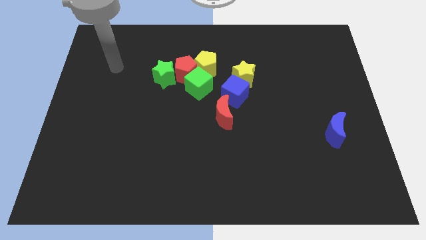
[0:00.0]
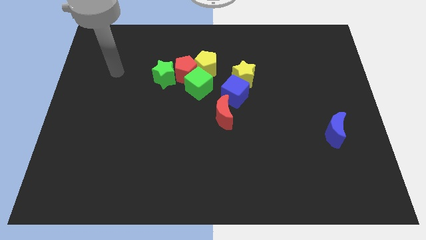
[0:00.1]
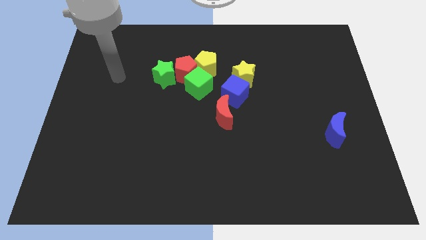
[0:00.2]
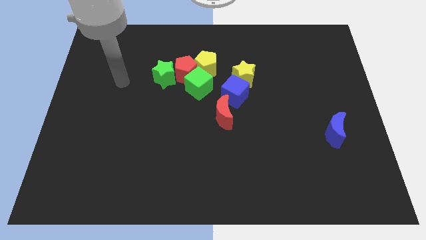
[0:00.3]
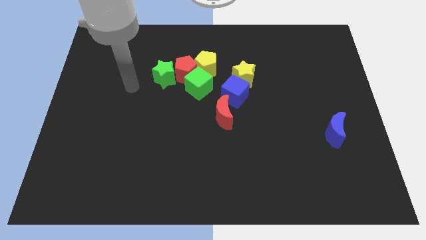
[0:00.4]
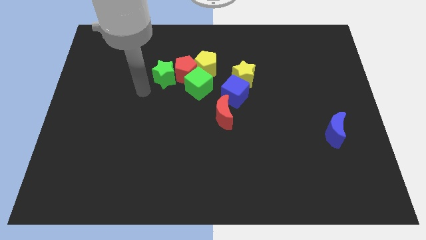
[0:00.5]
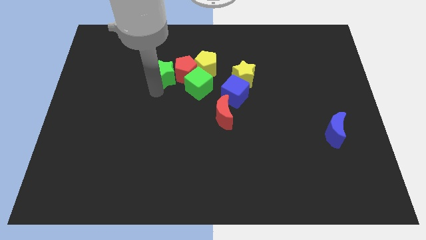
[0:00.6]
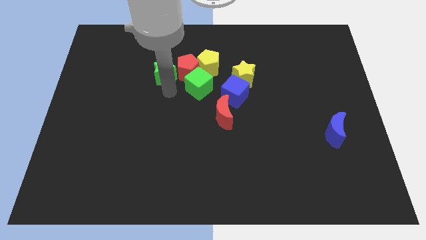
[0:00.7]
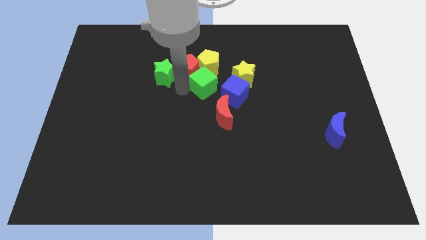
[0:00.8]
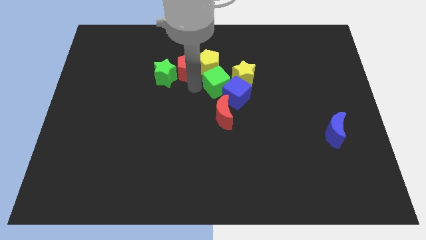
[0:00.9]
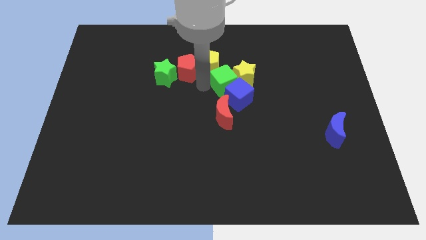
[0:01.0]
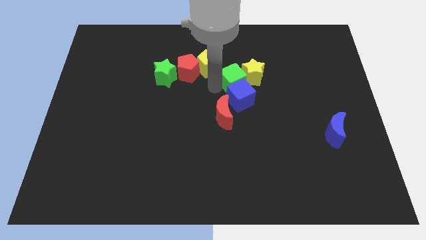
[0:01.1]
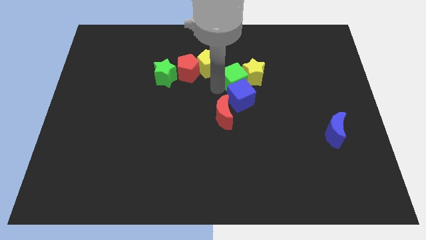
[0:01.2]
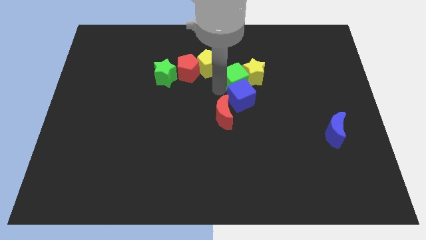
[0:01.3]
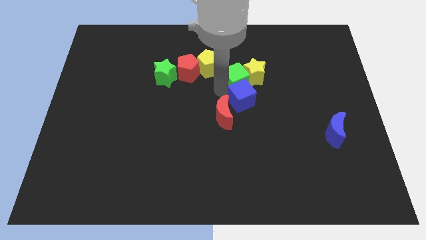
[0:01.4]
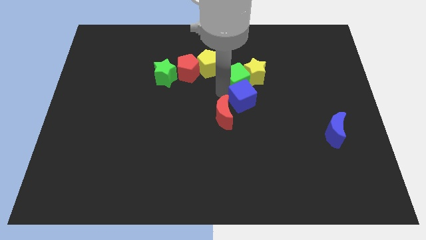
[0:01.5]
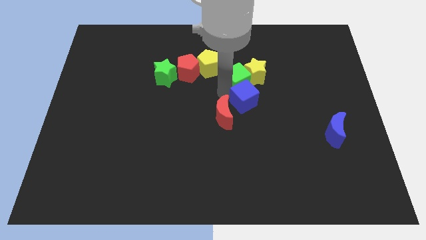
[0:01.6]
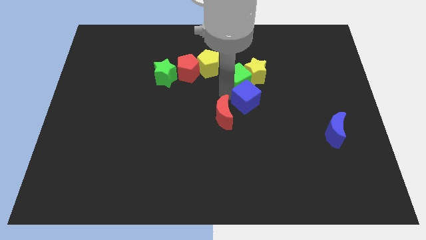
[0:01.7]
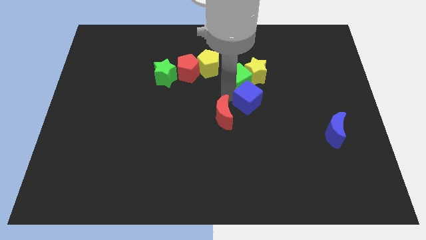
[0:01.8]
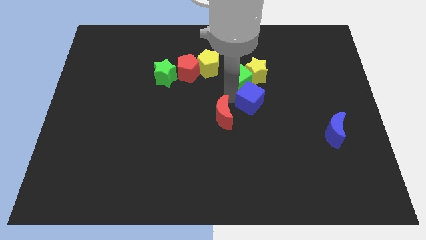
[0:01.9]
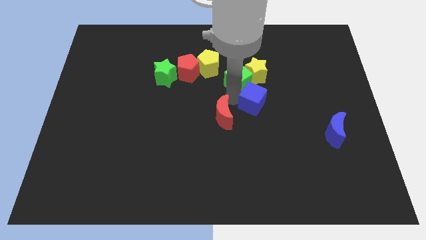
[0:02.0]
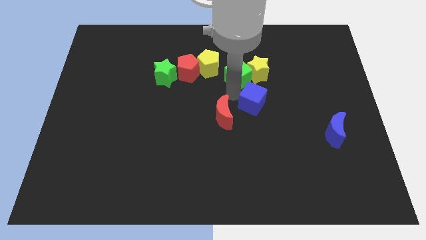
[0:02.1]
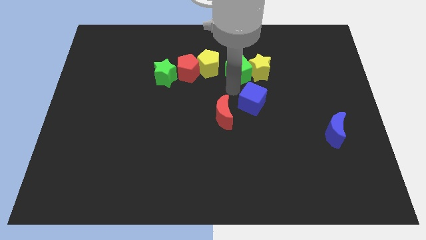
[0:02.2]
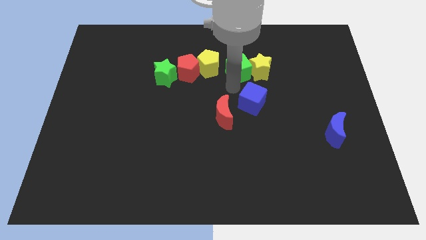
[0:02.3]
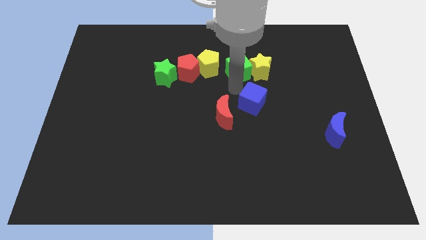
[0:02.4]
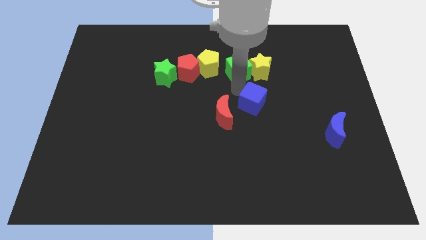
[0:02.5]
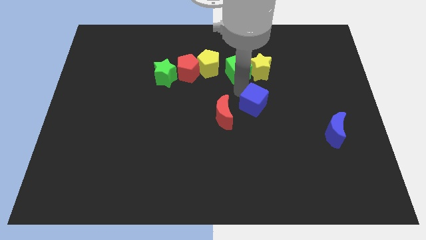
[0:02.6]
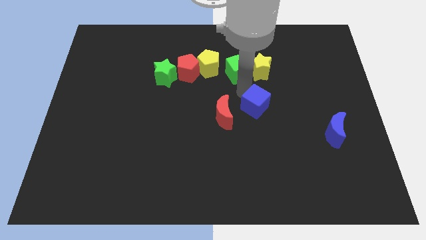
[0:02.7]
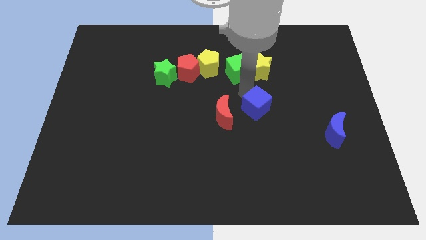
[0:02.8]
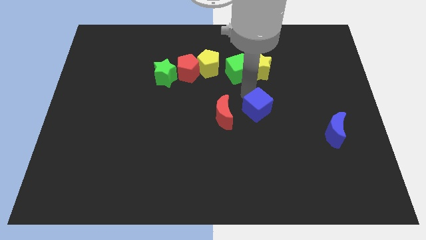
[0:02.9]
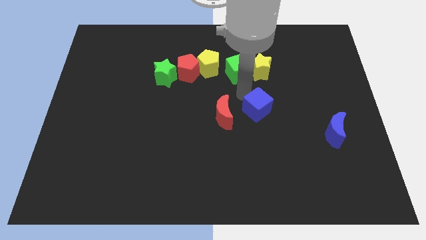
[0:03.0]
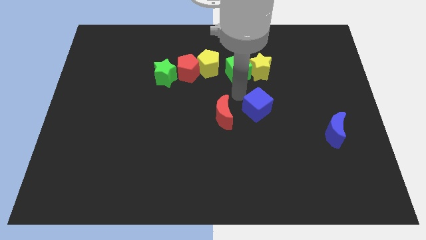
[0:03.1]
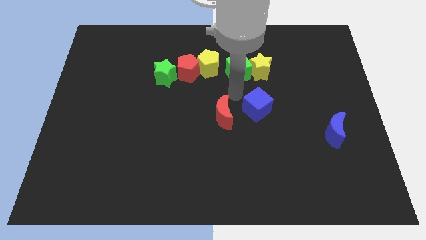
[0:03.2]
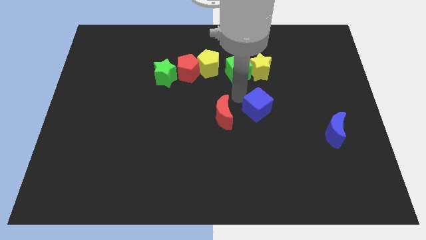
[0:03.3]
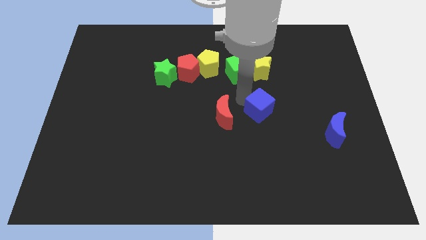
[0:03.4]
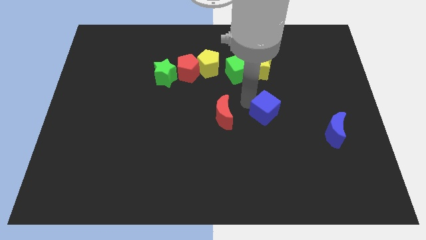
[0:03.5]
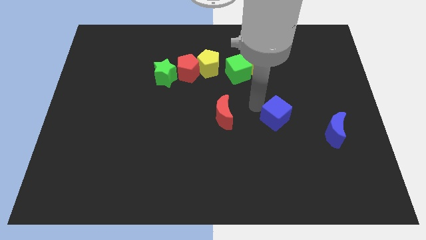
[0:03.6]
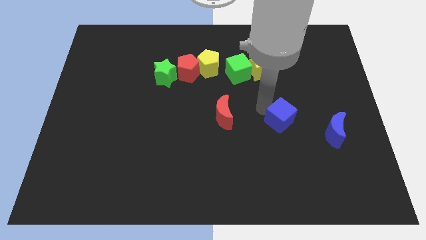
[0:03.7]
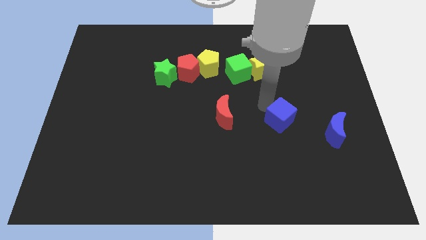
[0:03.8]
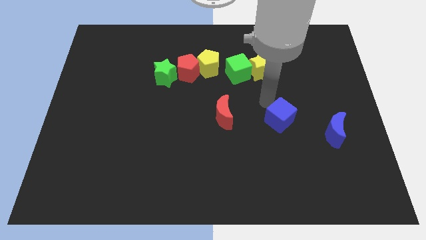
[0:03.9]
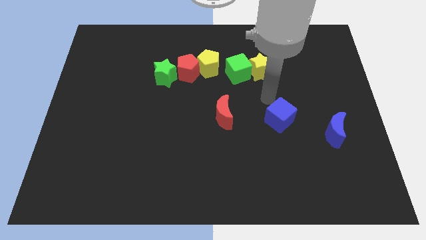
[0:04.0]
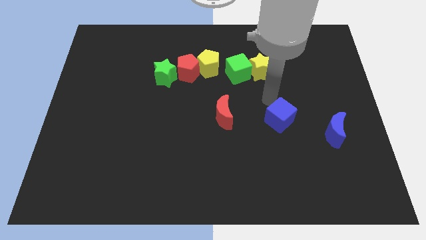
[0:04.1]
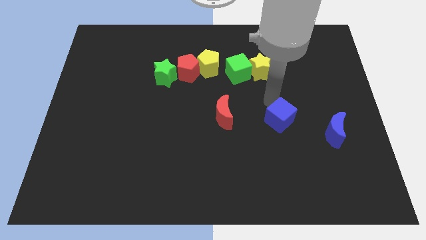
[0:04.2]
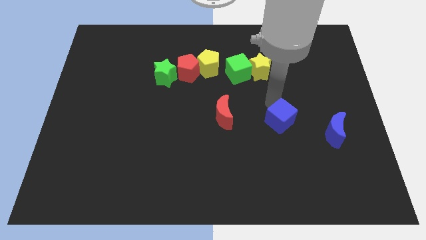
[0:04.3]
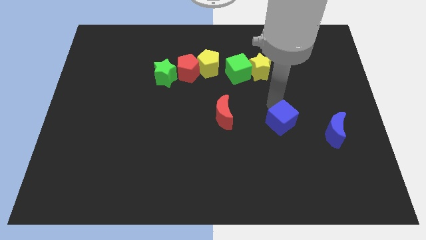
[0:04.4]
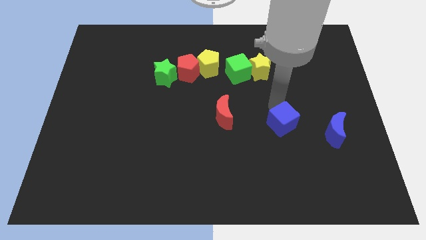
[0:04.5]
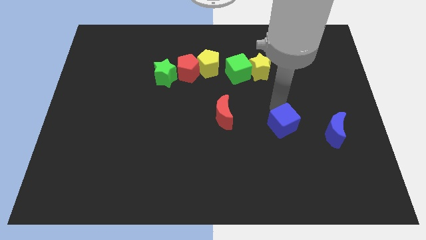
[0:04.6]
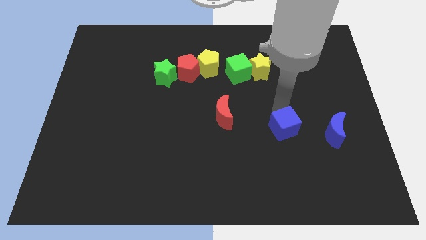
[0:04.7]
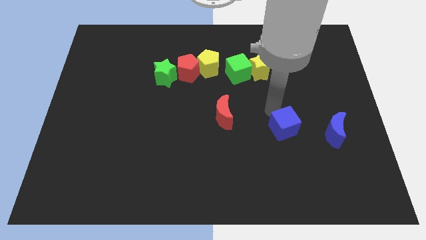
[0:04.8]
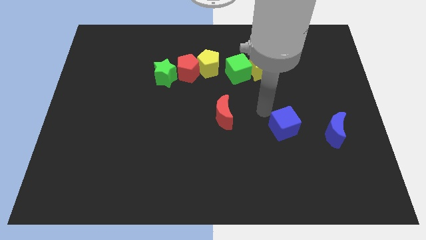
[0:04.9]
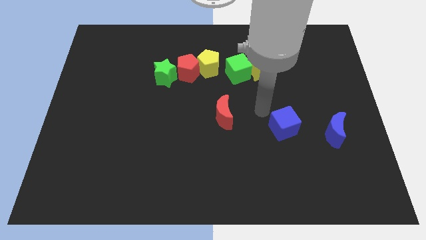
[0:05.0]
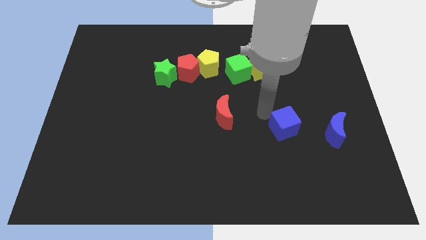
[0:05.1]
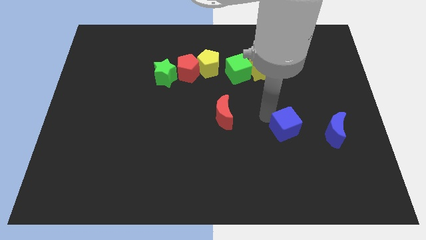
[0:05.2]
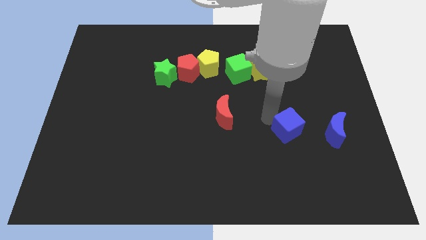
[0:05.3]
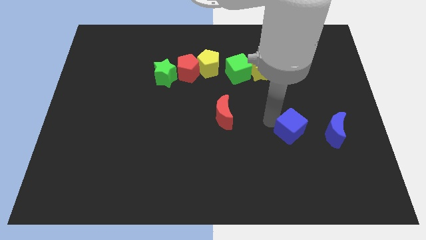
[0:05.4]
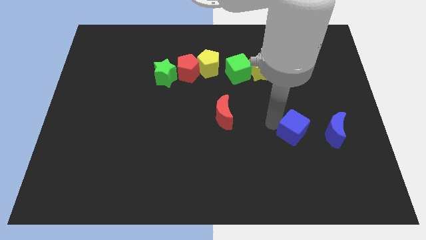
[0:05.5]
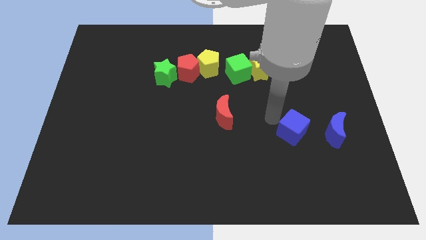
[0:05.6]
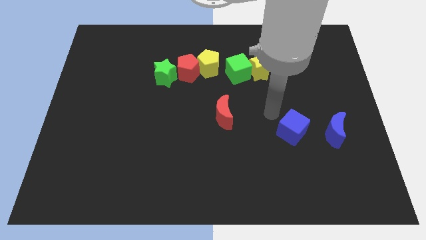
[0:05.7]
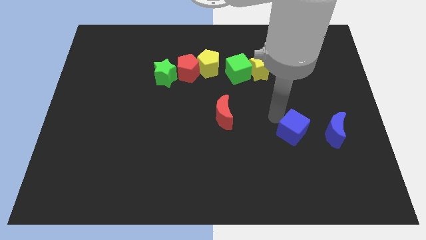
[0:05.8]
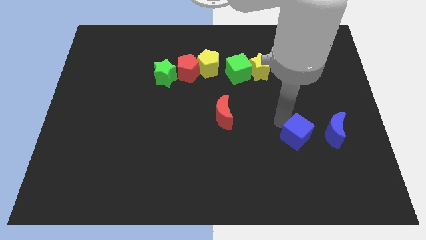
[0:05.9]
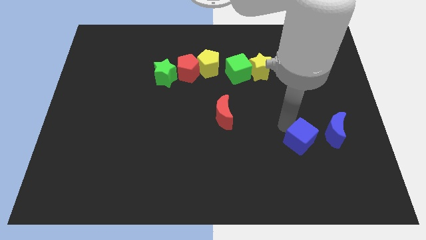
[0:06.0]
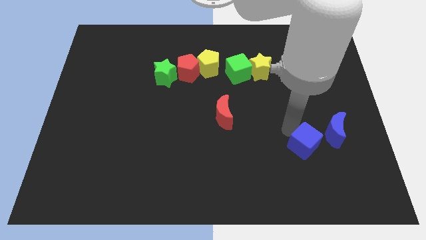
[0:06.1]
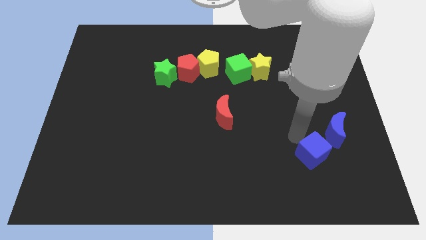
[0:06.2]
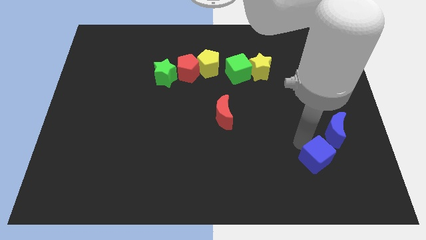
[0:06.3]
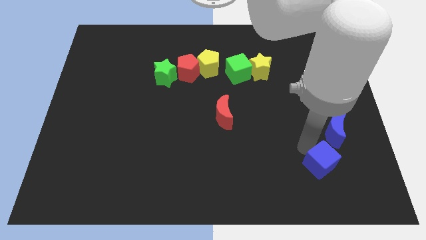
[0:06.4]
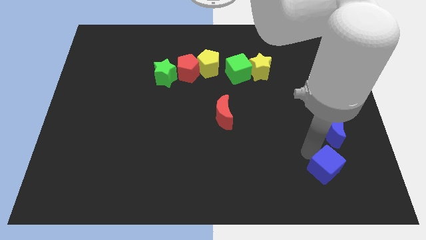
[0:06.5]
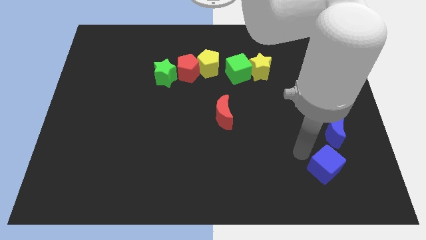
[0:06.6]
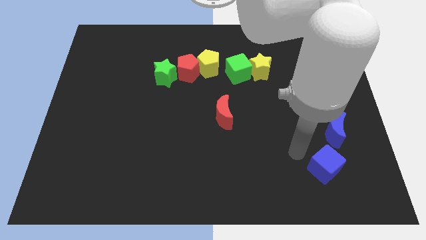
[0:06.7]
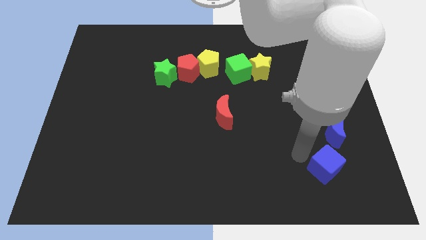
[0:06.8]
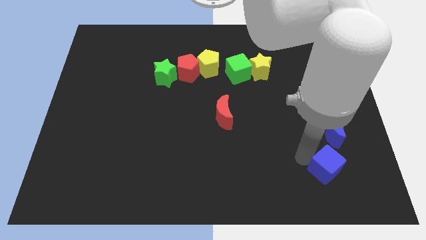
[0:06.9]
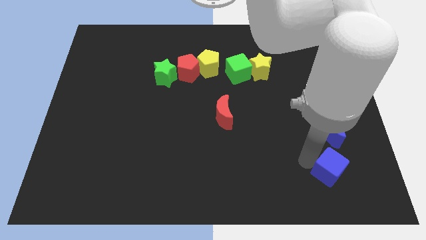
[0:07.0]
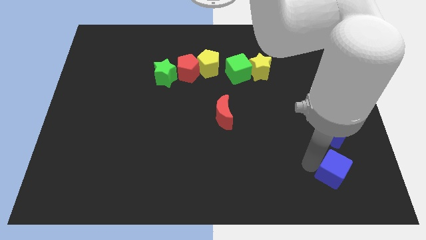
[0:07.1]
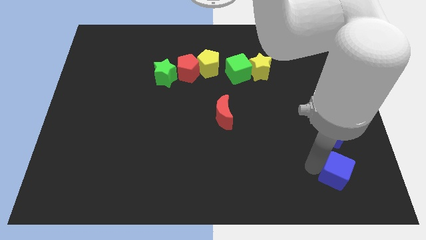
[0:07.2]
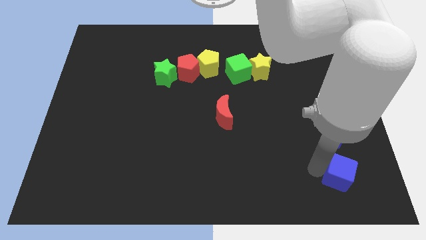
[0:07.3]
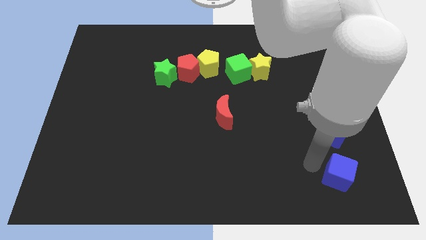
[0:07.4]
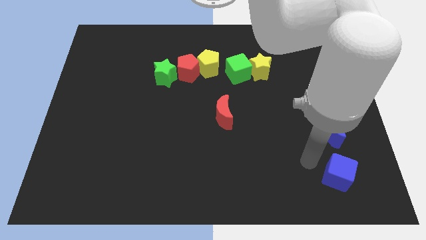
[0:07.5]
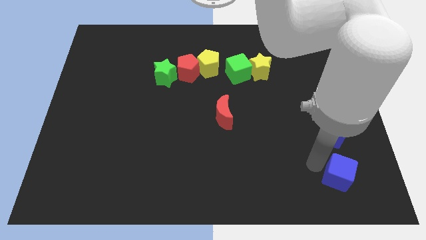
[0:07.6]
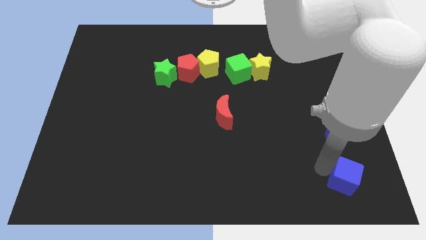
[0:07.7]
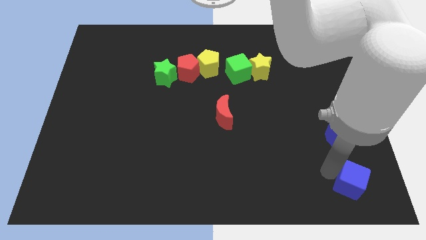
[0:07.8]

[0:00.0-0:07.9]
slide the blue cube to the bottom right corner
